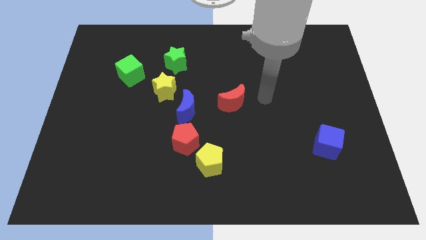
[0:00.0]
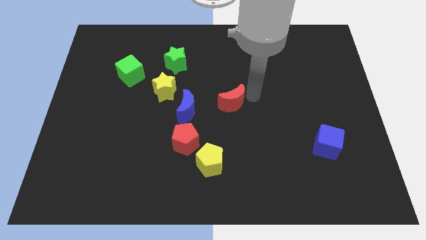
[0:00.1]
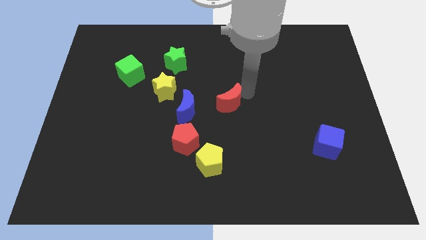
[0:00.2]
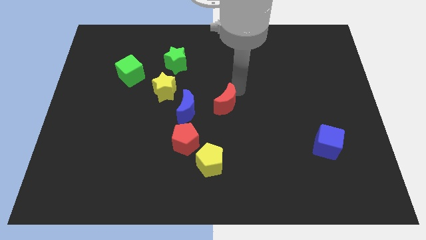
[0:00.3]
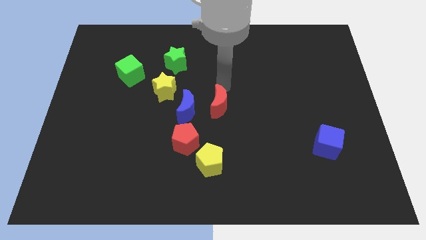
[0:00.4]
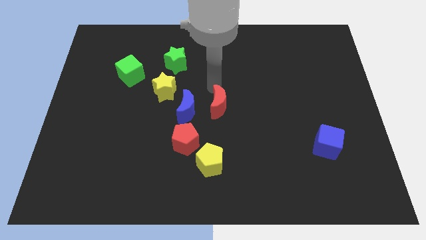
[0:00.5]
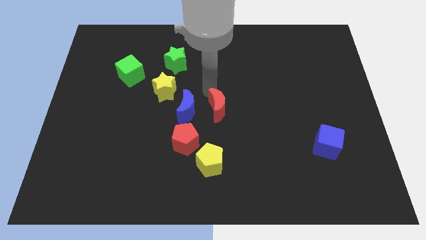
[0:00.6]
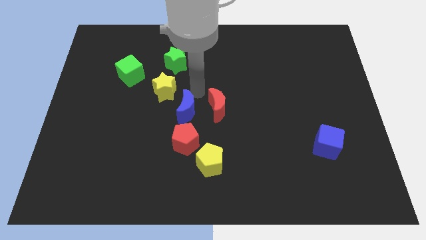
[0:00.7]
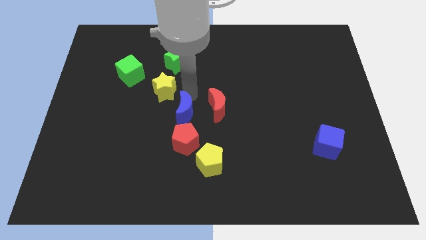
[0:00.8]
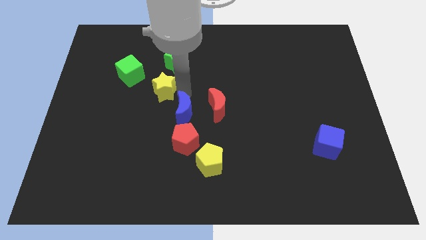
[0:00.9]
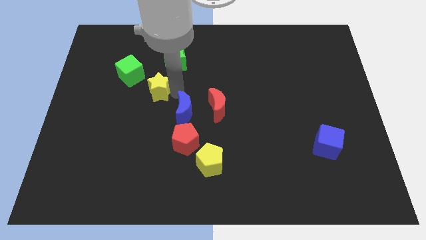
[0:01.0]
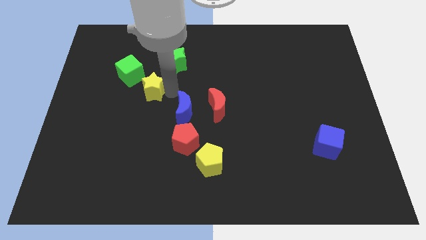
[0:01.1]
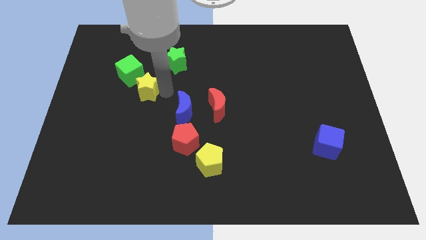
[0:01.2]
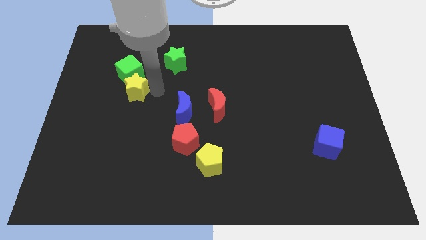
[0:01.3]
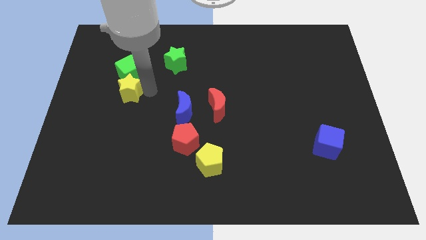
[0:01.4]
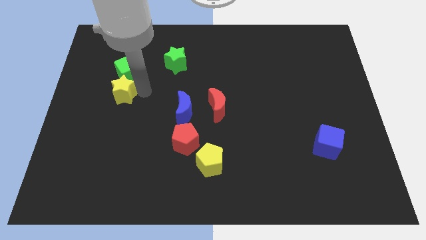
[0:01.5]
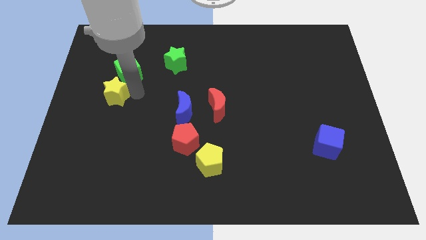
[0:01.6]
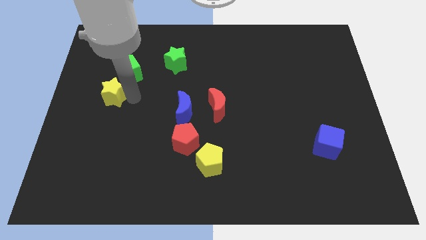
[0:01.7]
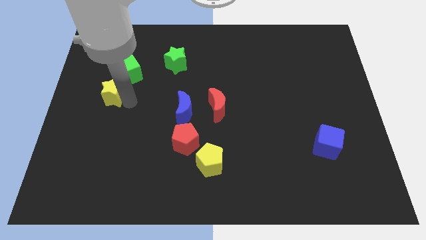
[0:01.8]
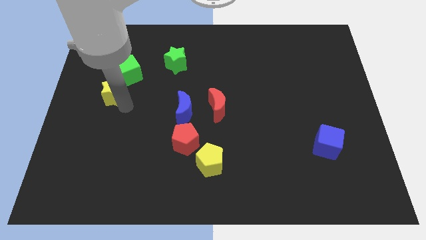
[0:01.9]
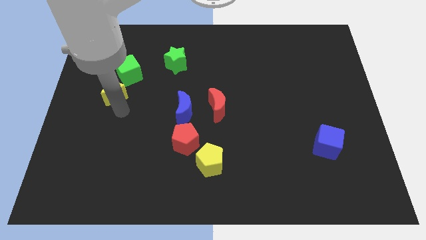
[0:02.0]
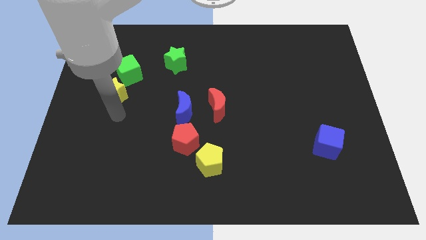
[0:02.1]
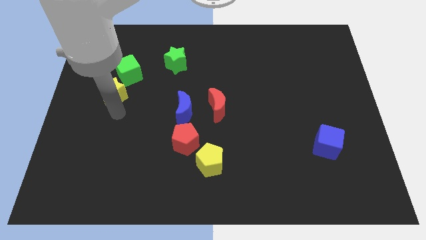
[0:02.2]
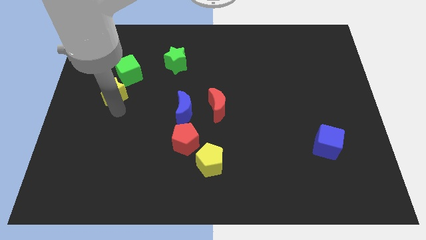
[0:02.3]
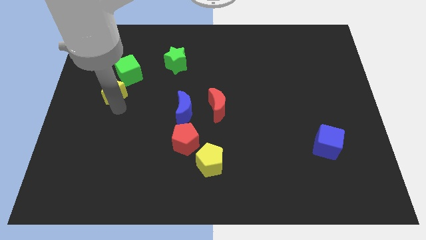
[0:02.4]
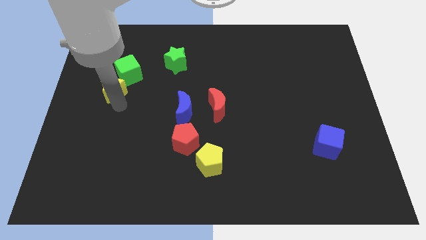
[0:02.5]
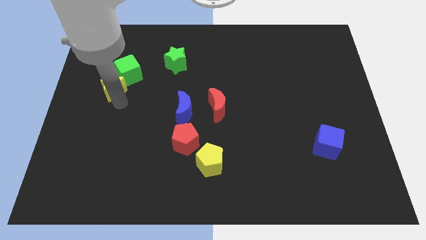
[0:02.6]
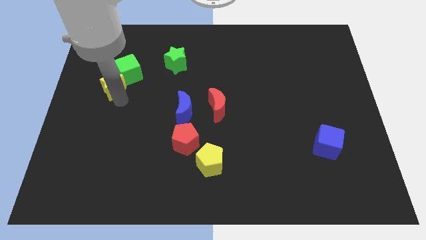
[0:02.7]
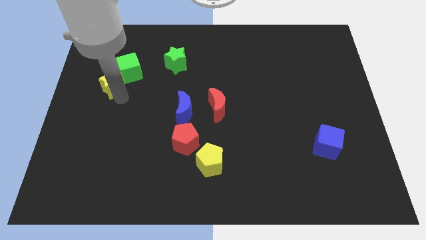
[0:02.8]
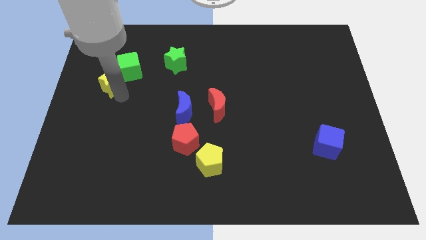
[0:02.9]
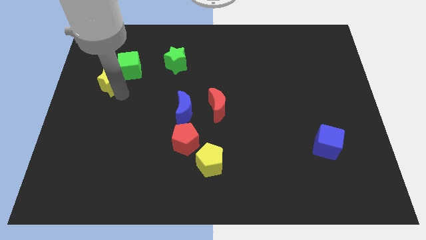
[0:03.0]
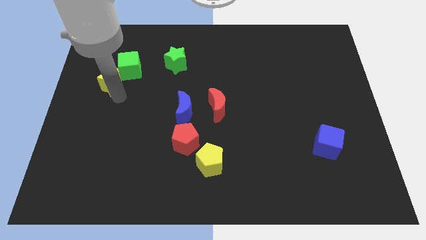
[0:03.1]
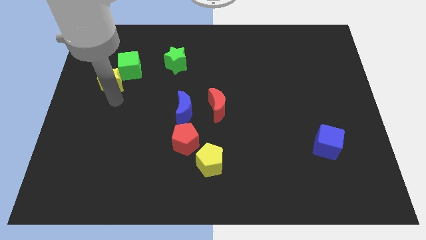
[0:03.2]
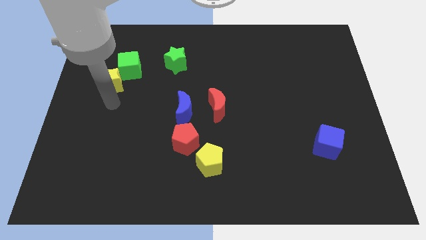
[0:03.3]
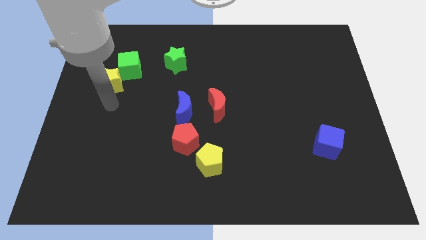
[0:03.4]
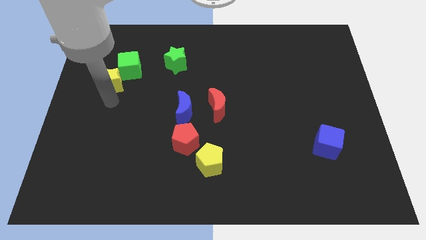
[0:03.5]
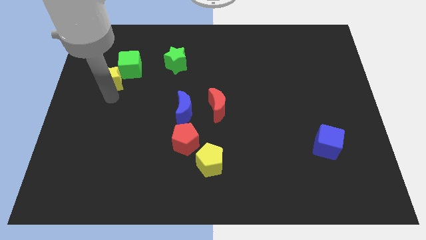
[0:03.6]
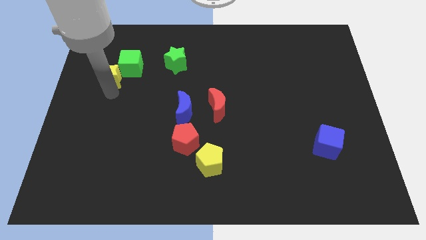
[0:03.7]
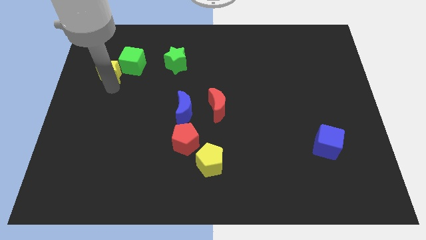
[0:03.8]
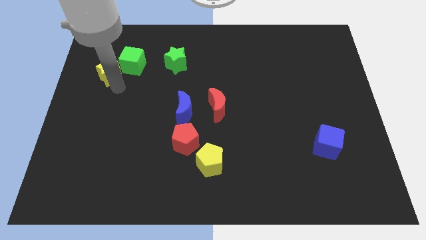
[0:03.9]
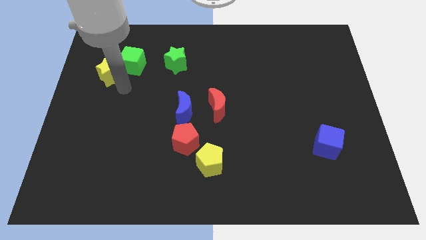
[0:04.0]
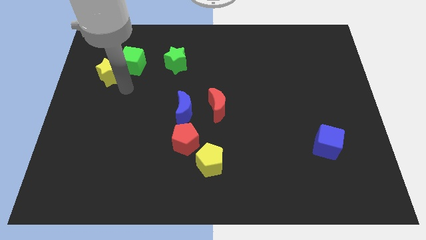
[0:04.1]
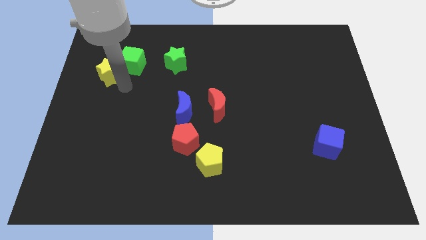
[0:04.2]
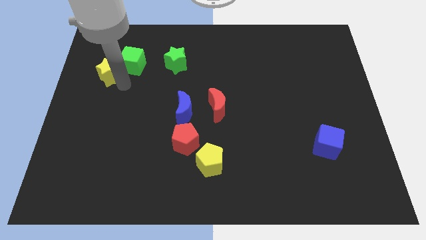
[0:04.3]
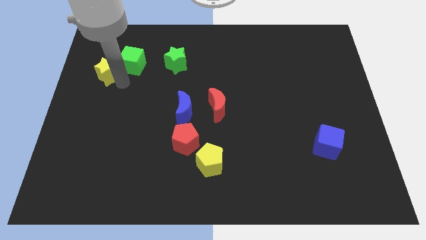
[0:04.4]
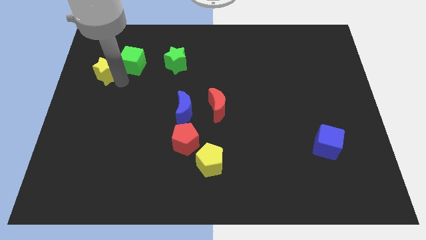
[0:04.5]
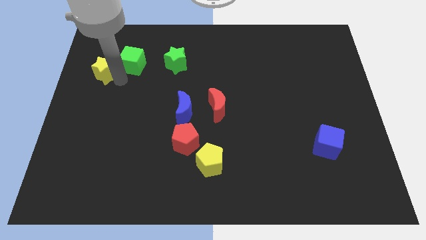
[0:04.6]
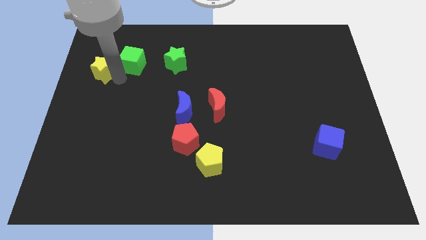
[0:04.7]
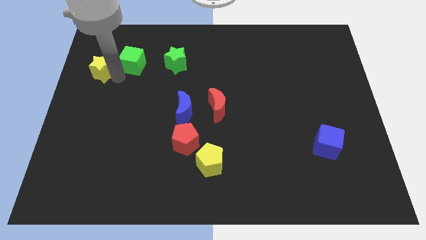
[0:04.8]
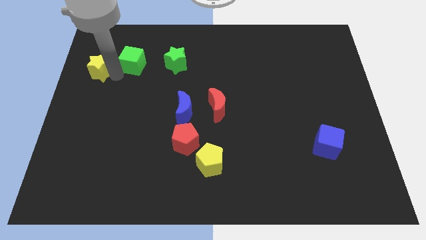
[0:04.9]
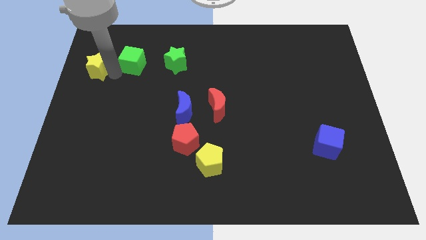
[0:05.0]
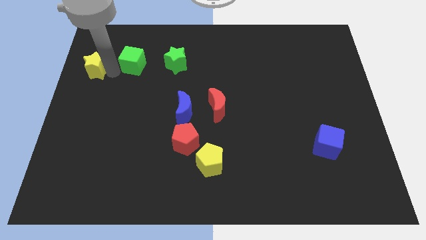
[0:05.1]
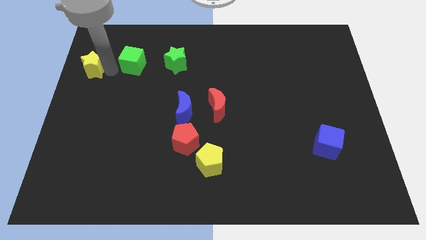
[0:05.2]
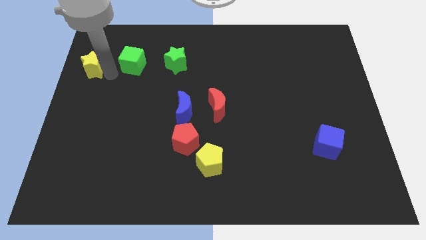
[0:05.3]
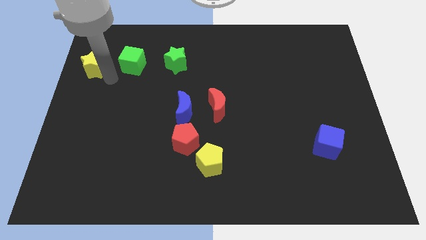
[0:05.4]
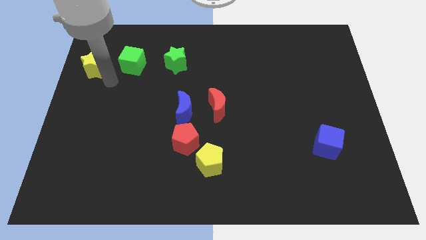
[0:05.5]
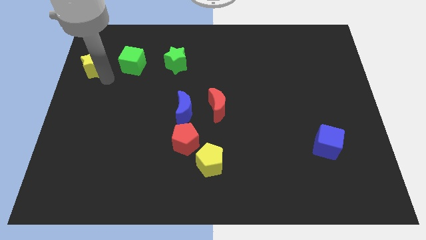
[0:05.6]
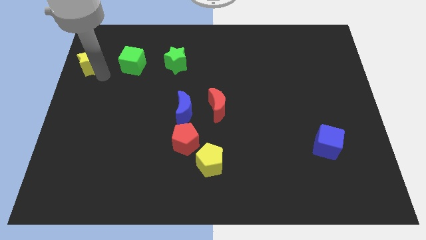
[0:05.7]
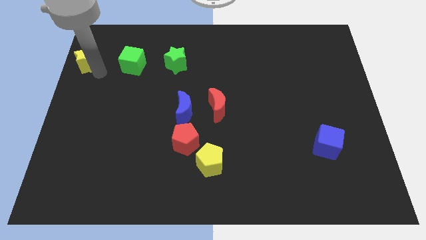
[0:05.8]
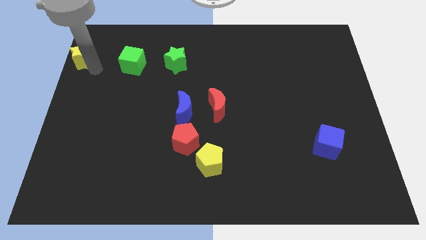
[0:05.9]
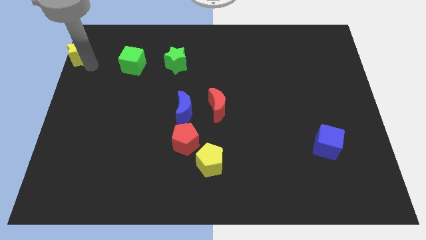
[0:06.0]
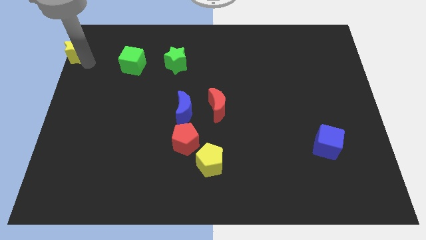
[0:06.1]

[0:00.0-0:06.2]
slide the yellow star to the upper left corner
